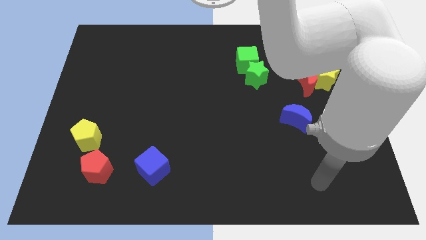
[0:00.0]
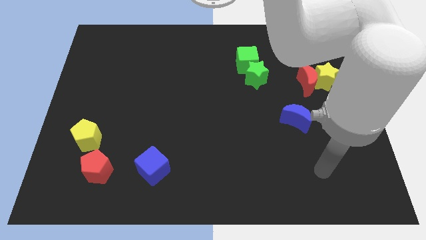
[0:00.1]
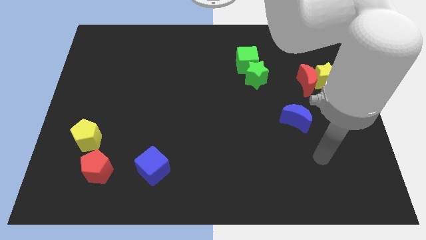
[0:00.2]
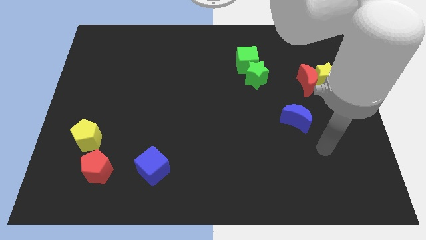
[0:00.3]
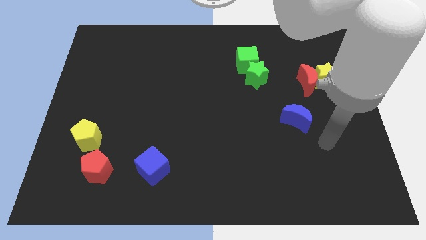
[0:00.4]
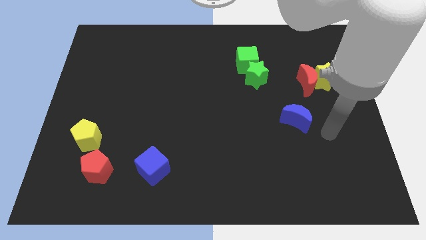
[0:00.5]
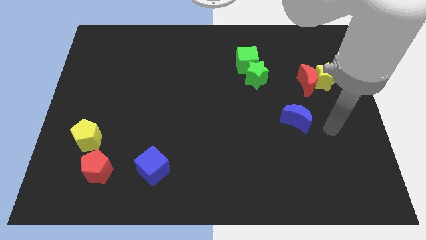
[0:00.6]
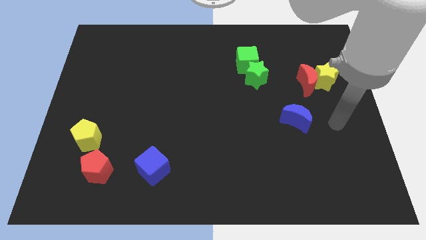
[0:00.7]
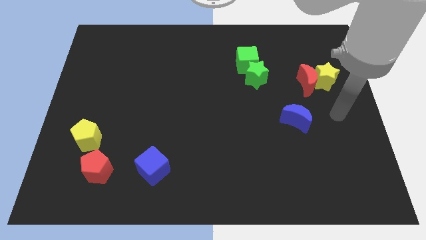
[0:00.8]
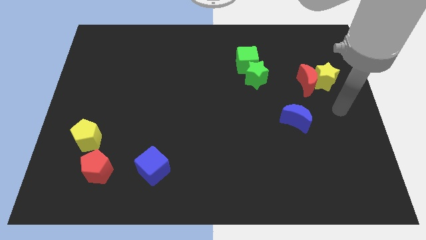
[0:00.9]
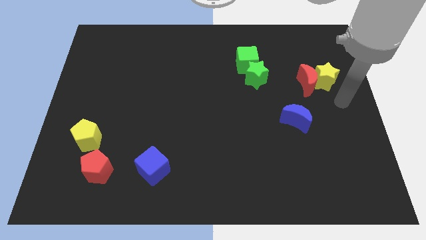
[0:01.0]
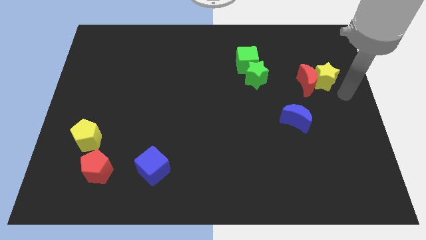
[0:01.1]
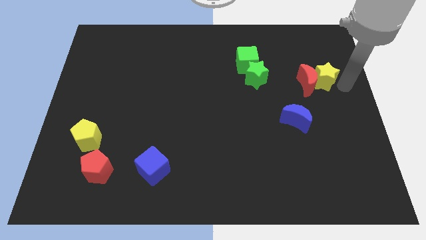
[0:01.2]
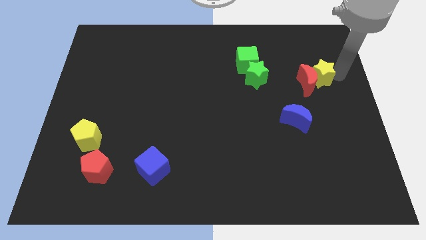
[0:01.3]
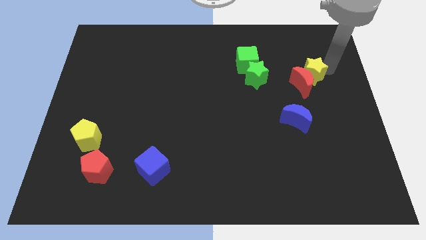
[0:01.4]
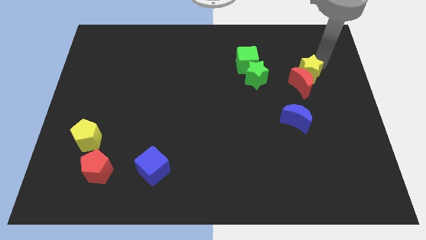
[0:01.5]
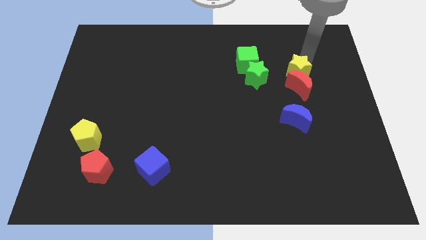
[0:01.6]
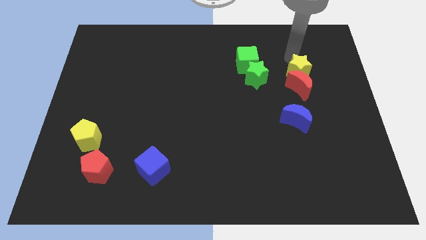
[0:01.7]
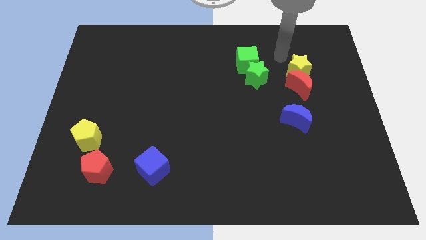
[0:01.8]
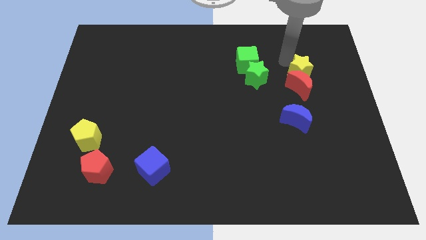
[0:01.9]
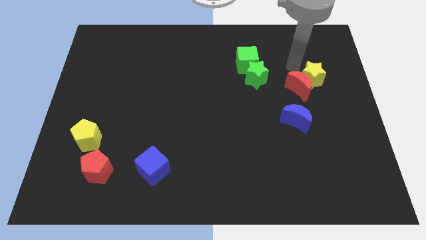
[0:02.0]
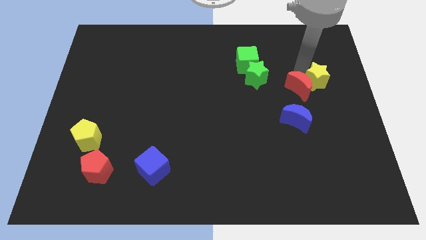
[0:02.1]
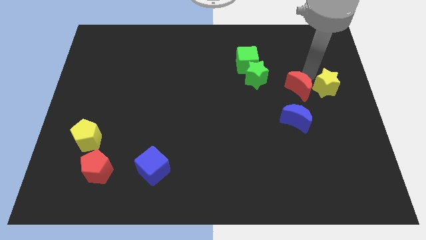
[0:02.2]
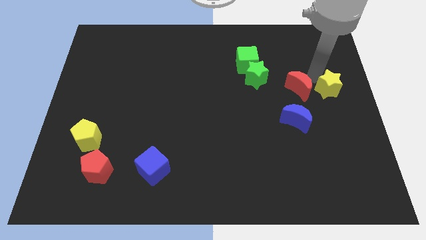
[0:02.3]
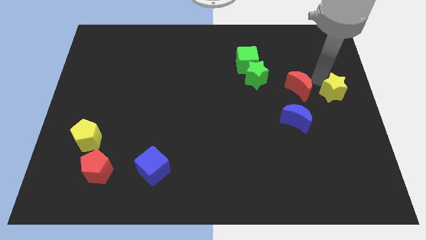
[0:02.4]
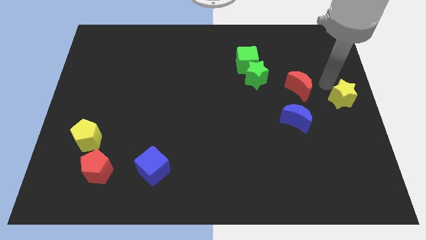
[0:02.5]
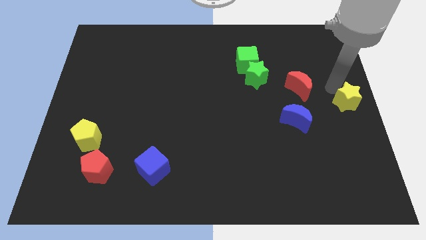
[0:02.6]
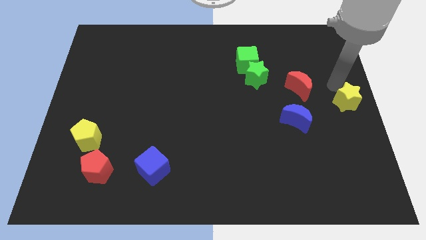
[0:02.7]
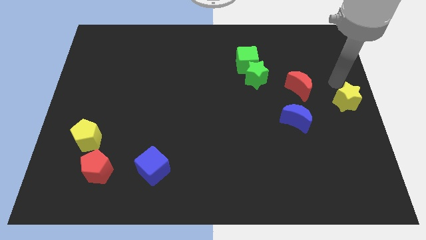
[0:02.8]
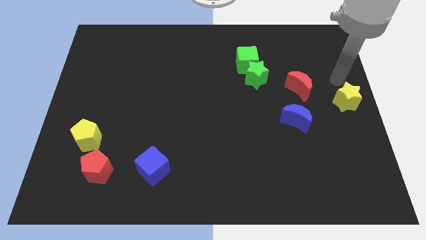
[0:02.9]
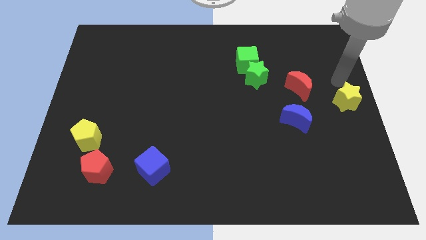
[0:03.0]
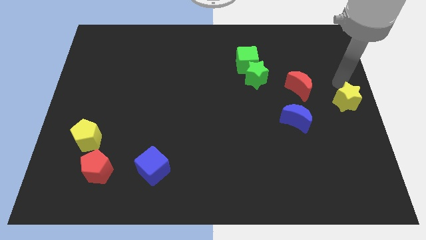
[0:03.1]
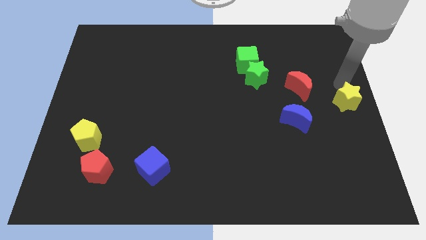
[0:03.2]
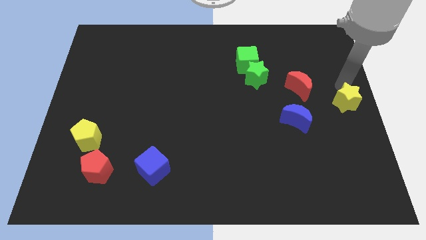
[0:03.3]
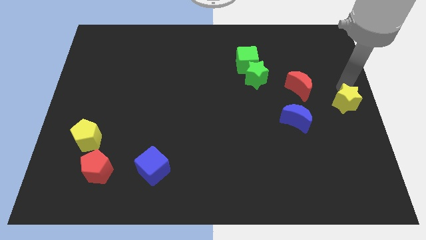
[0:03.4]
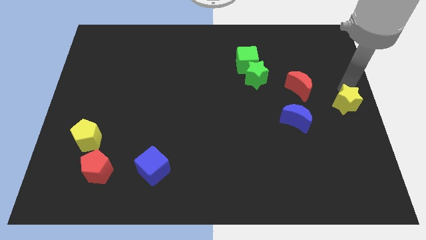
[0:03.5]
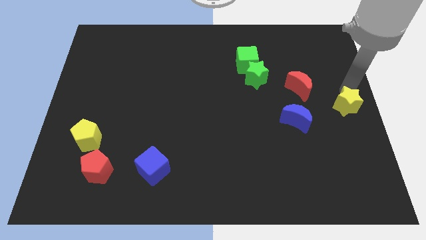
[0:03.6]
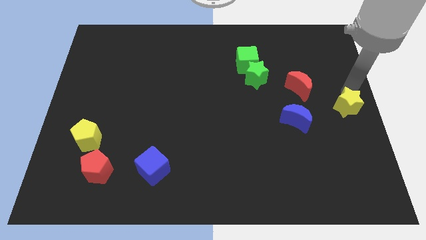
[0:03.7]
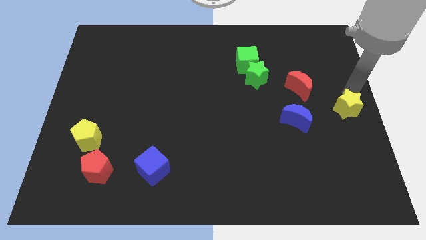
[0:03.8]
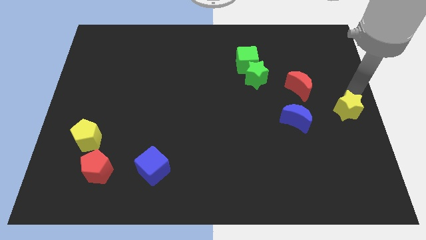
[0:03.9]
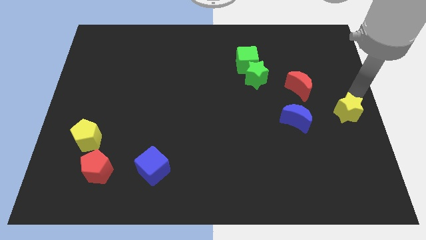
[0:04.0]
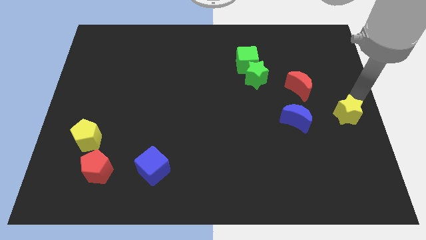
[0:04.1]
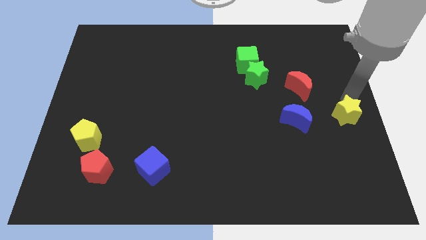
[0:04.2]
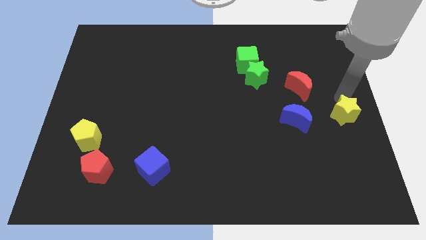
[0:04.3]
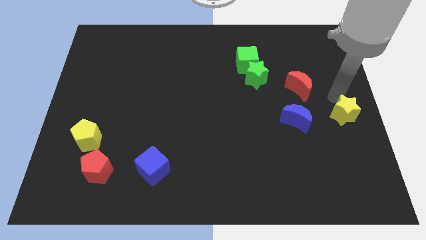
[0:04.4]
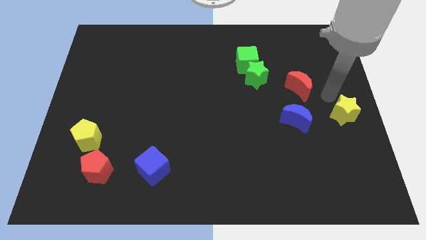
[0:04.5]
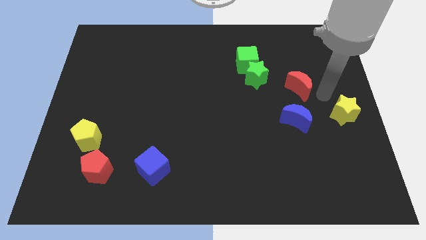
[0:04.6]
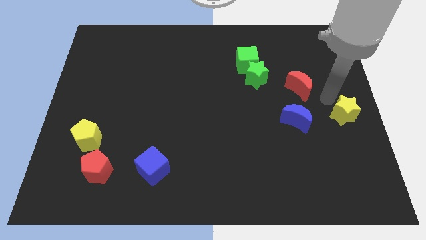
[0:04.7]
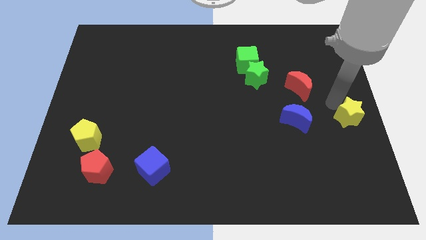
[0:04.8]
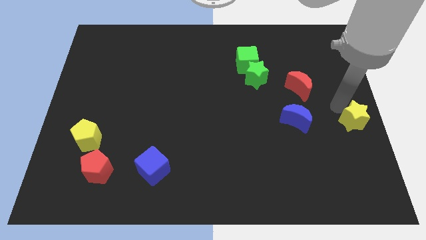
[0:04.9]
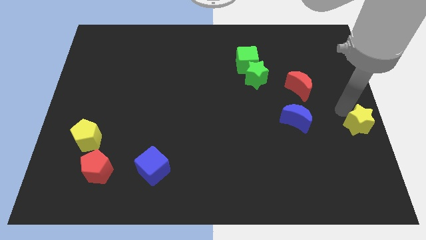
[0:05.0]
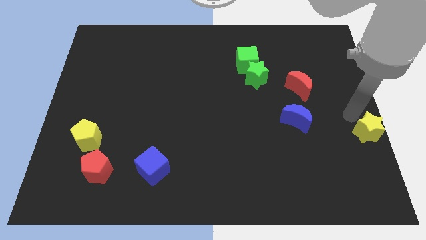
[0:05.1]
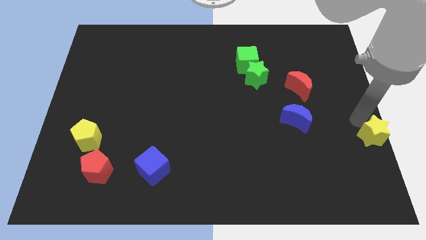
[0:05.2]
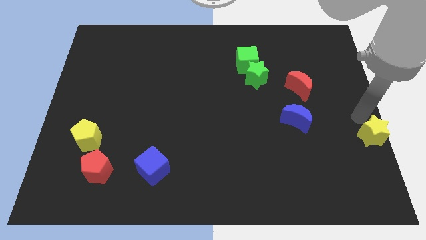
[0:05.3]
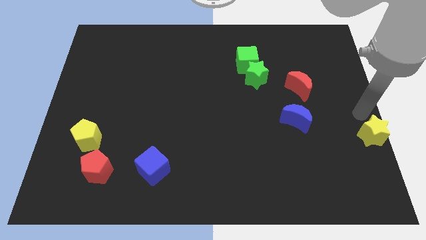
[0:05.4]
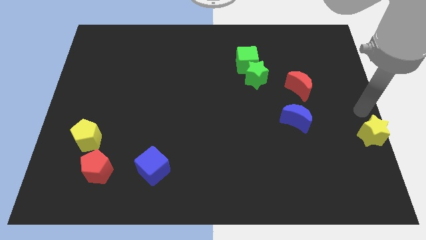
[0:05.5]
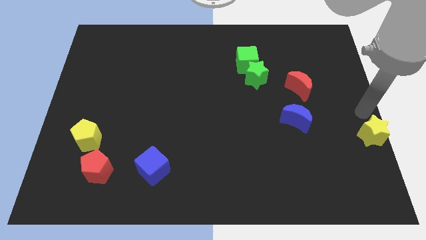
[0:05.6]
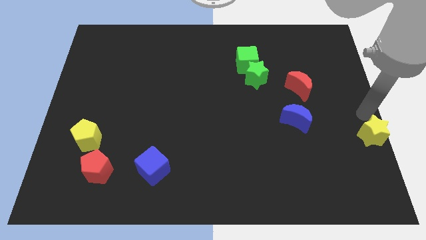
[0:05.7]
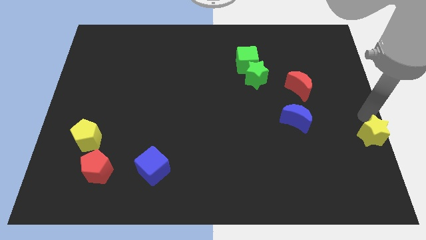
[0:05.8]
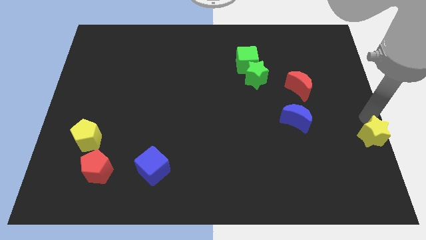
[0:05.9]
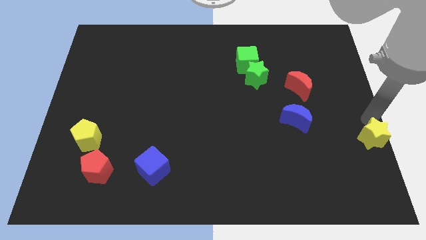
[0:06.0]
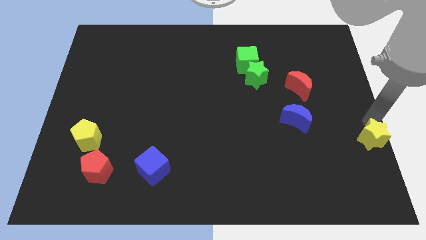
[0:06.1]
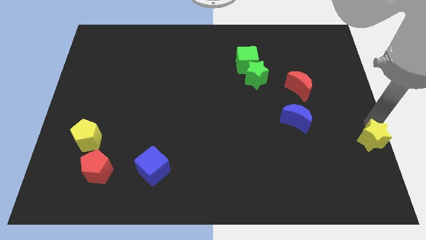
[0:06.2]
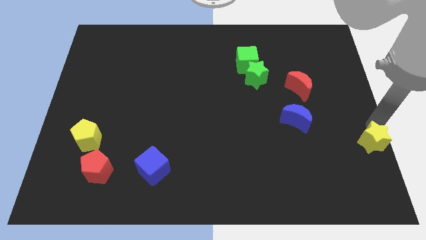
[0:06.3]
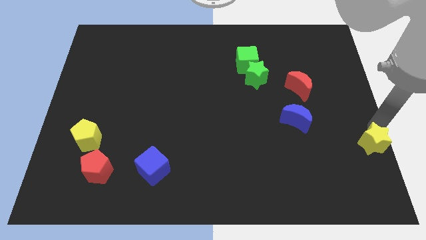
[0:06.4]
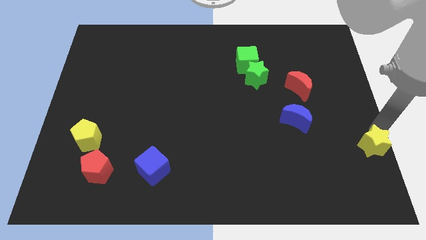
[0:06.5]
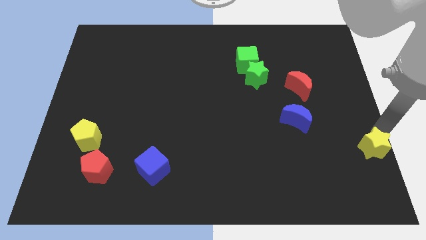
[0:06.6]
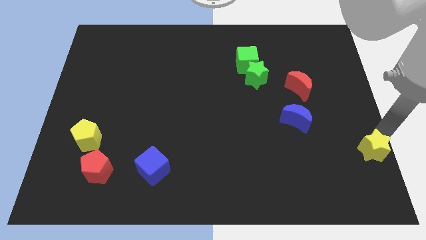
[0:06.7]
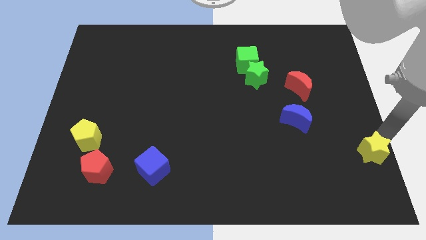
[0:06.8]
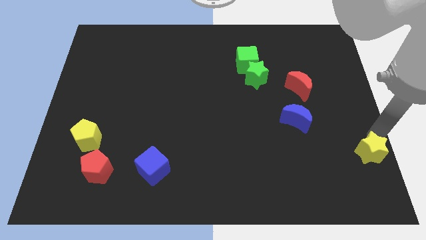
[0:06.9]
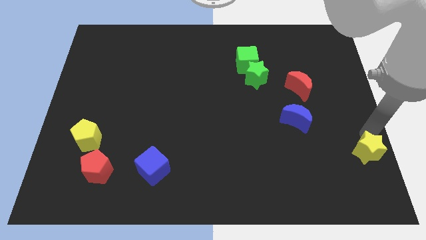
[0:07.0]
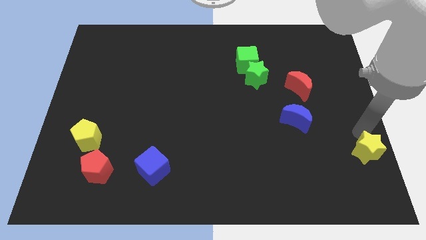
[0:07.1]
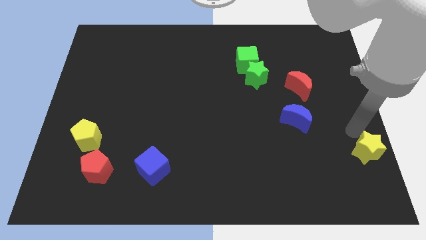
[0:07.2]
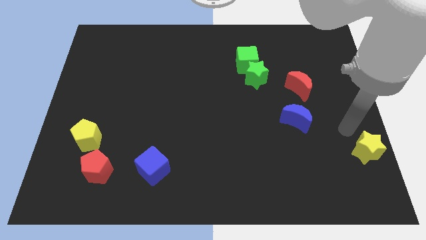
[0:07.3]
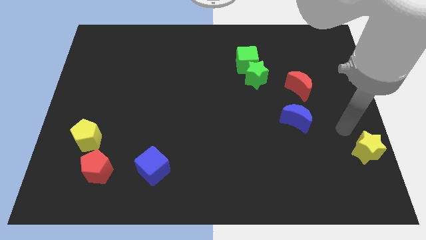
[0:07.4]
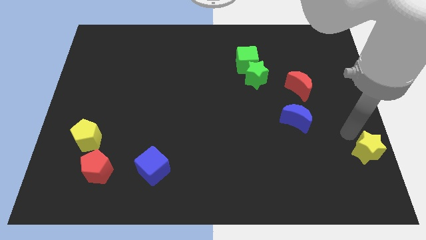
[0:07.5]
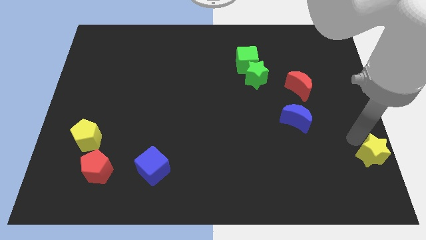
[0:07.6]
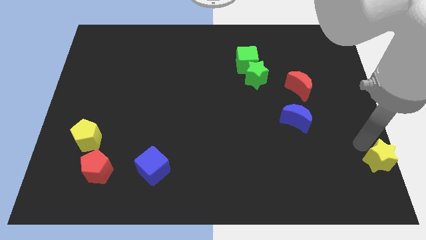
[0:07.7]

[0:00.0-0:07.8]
move the yellow star to the bottom right
